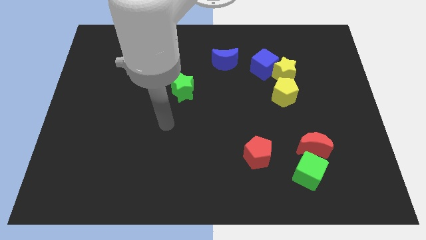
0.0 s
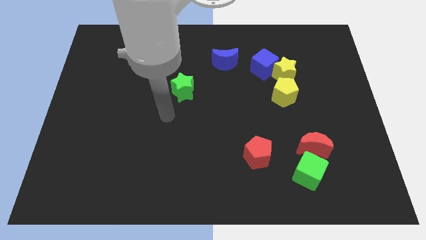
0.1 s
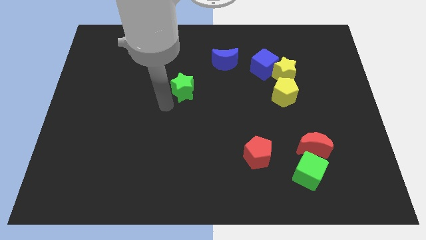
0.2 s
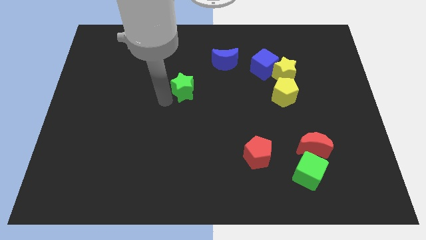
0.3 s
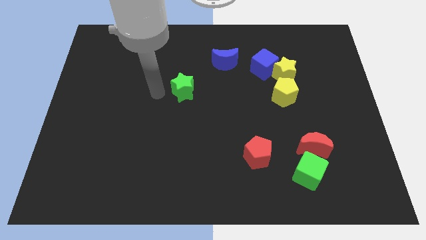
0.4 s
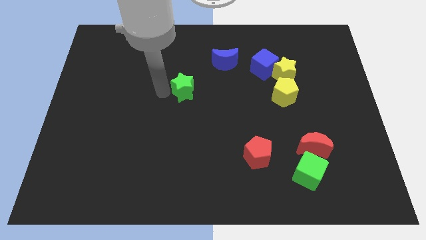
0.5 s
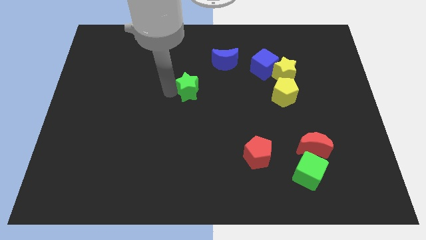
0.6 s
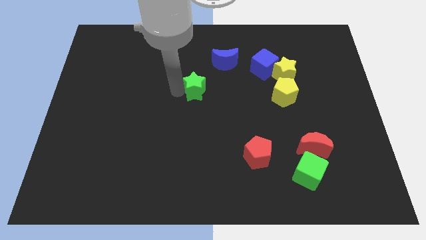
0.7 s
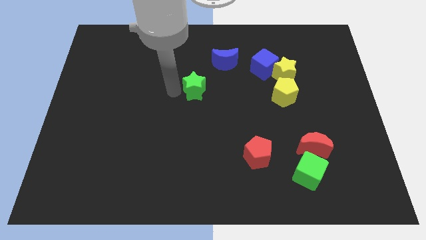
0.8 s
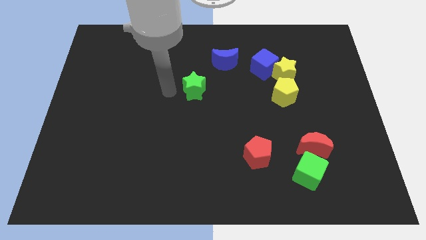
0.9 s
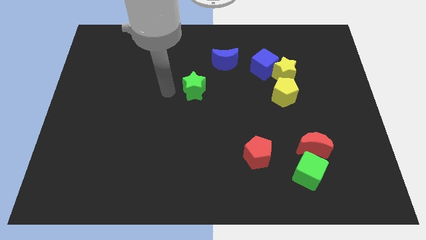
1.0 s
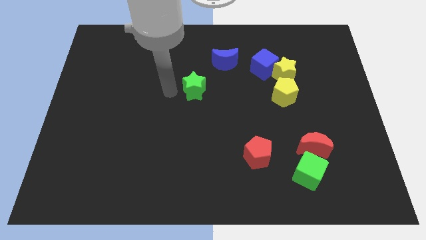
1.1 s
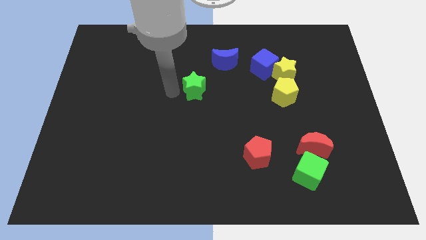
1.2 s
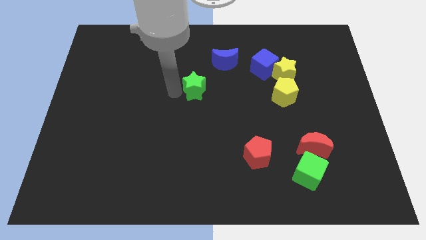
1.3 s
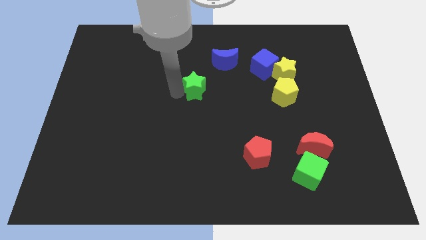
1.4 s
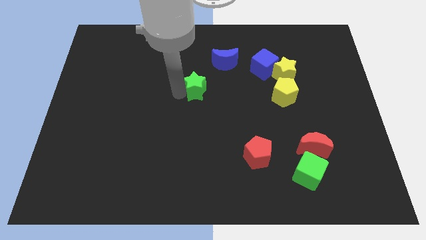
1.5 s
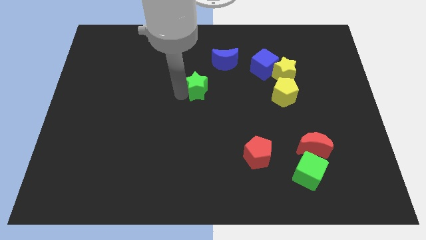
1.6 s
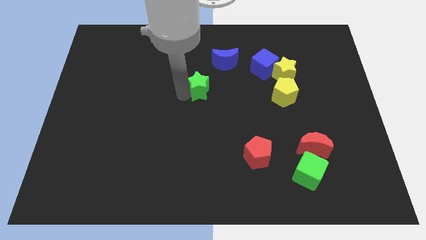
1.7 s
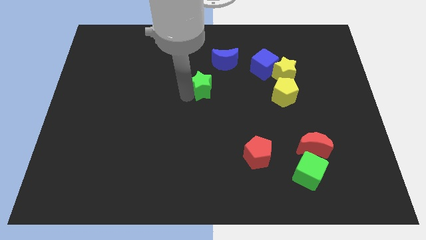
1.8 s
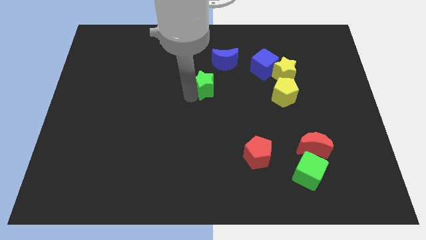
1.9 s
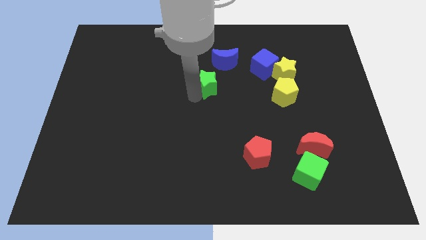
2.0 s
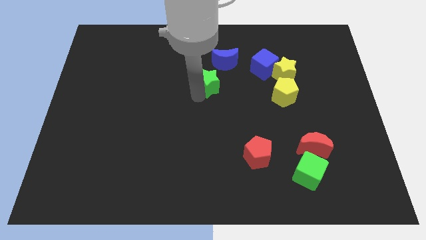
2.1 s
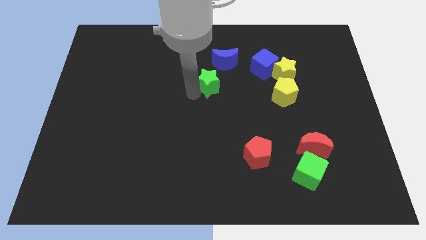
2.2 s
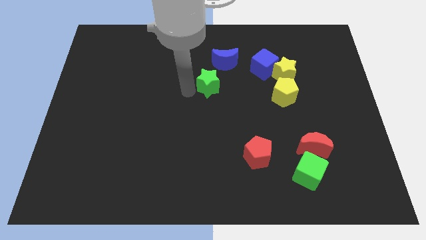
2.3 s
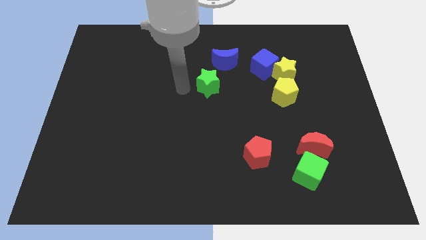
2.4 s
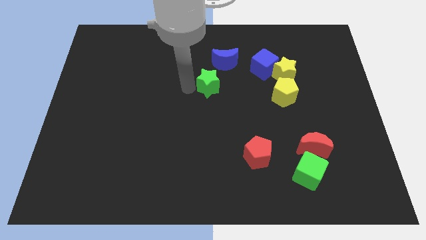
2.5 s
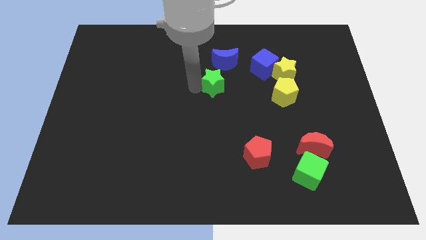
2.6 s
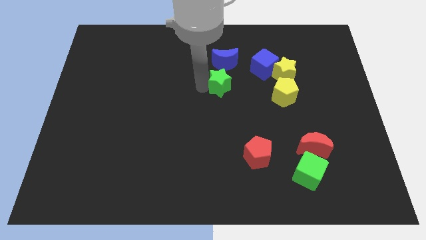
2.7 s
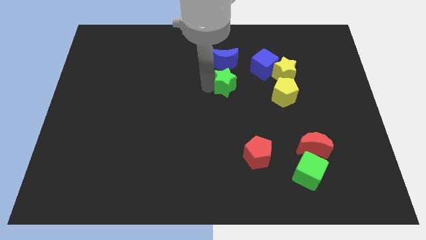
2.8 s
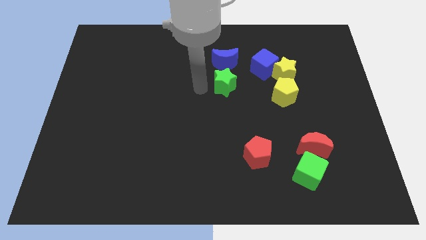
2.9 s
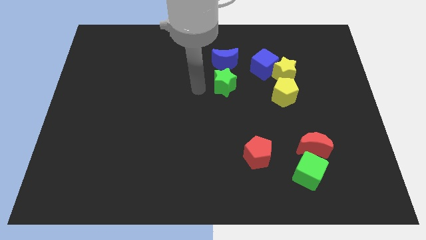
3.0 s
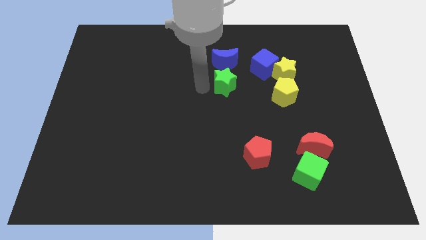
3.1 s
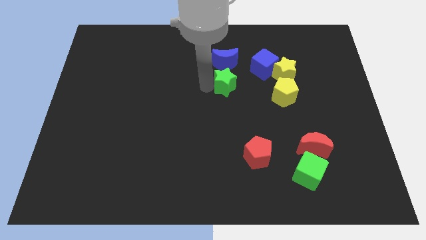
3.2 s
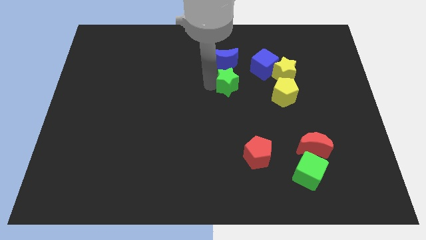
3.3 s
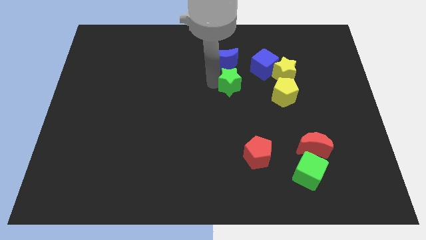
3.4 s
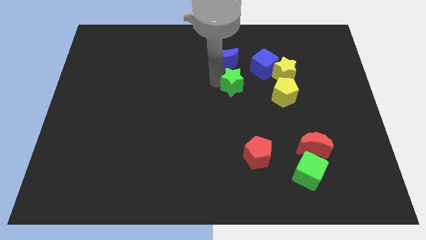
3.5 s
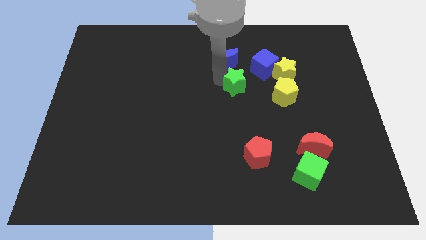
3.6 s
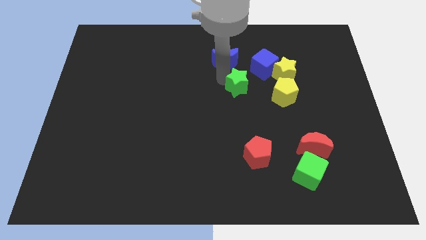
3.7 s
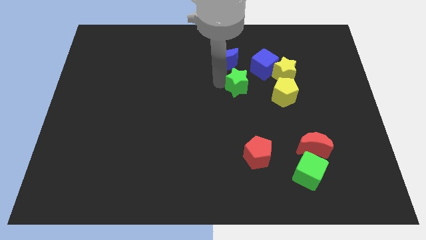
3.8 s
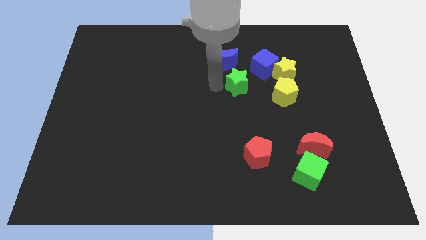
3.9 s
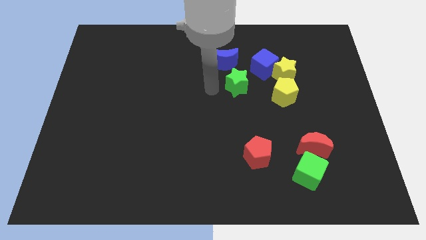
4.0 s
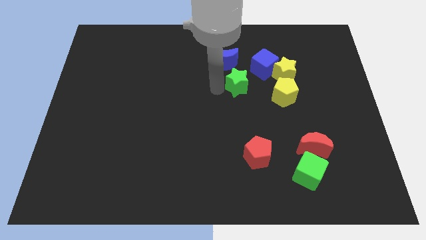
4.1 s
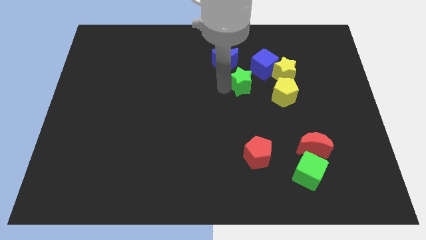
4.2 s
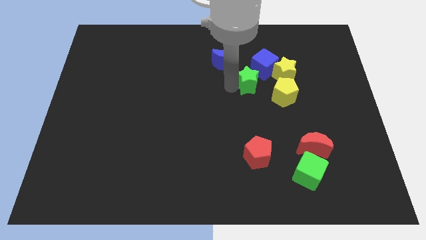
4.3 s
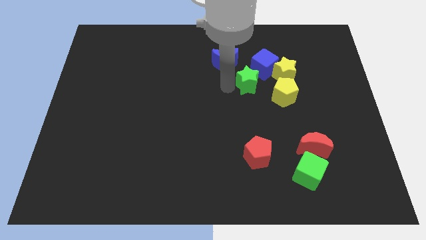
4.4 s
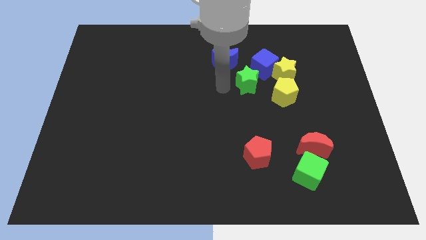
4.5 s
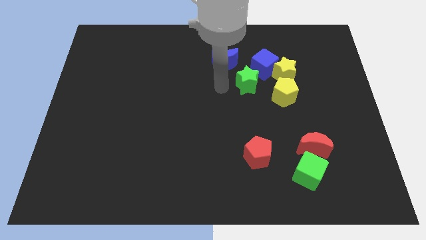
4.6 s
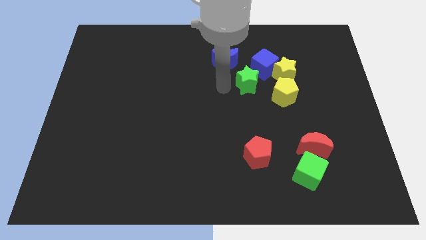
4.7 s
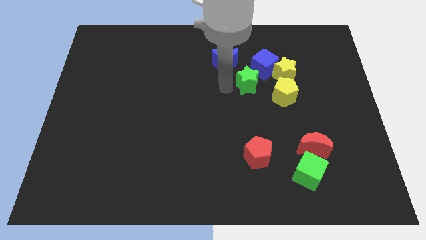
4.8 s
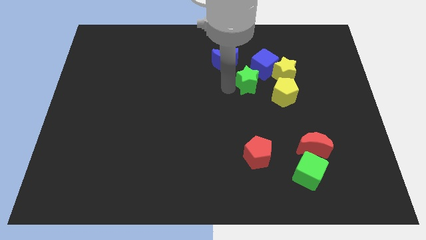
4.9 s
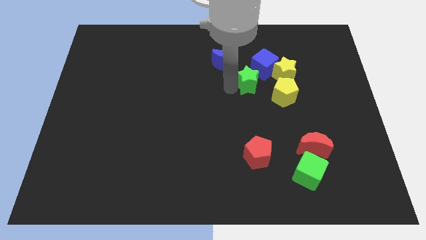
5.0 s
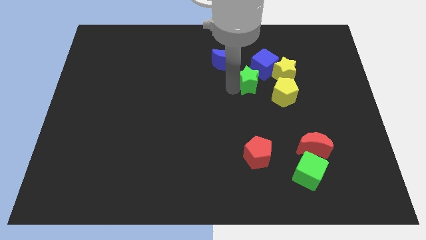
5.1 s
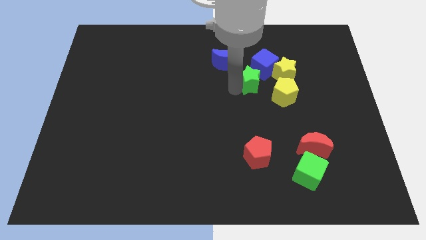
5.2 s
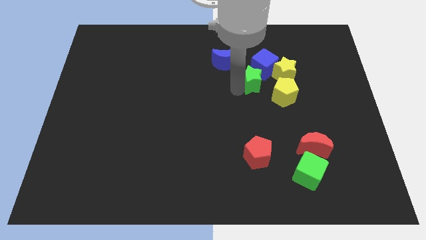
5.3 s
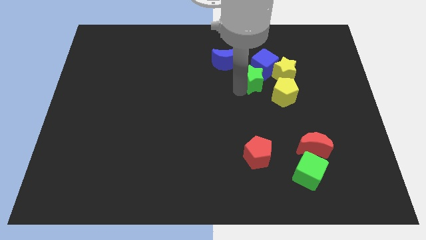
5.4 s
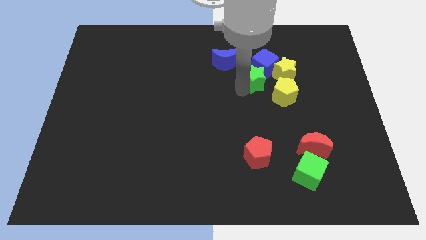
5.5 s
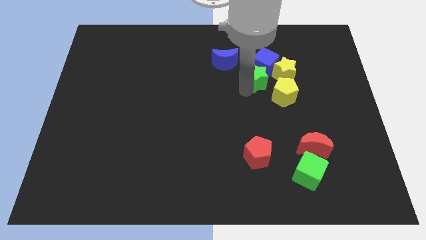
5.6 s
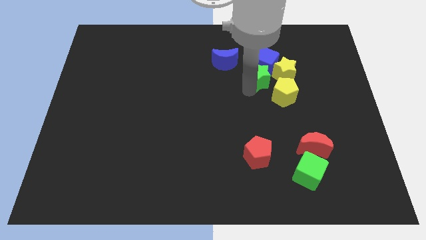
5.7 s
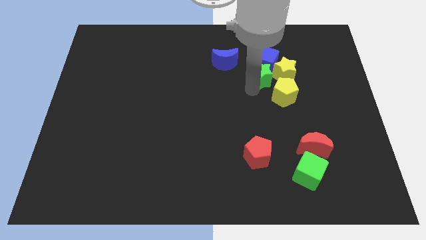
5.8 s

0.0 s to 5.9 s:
push the green star close to the yellow star

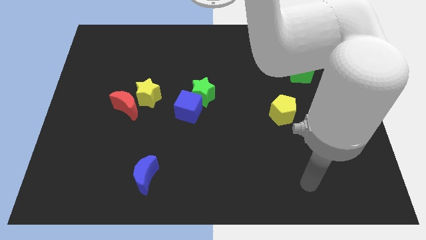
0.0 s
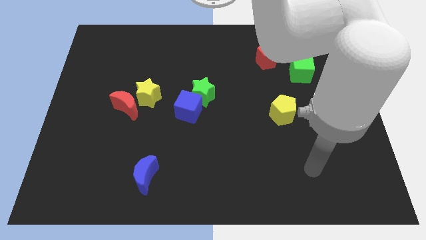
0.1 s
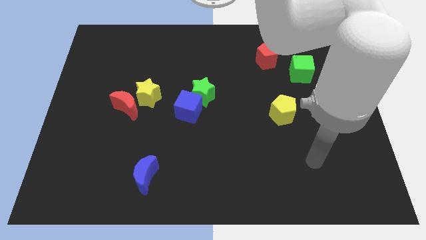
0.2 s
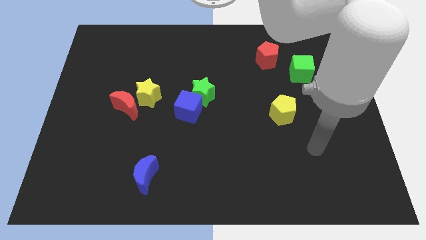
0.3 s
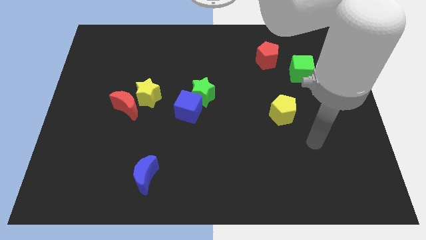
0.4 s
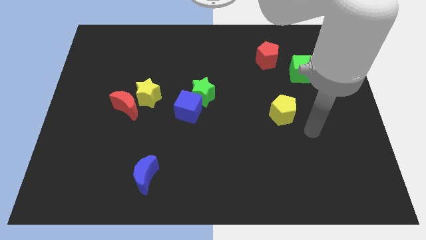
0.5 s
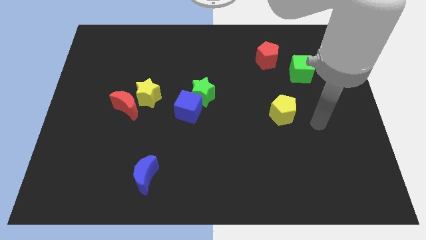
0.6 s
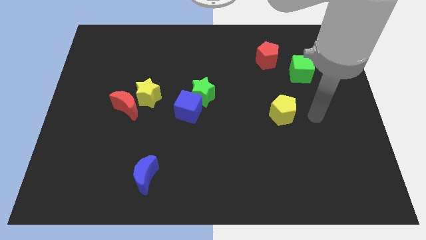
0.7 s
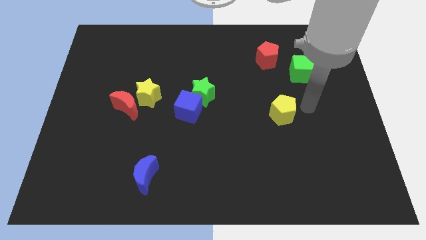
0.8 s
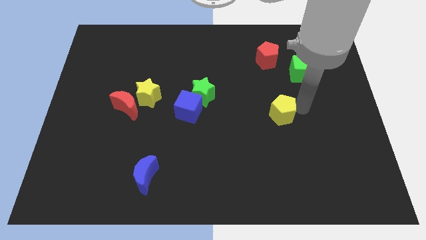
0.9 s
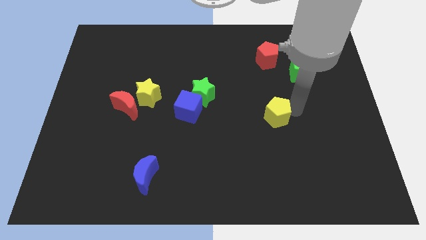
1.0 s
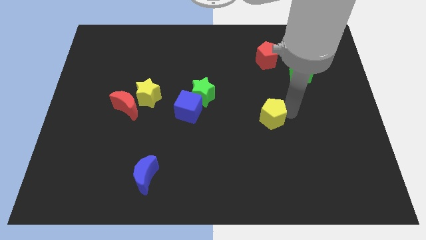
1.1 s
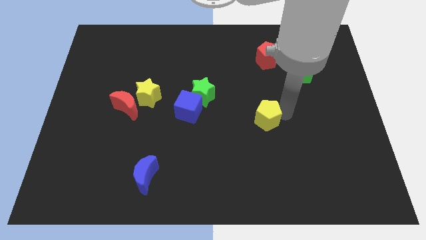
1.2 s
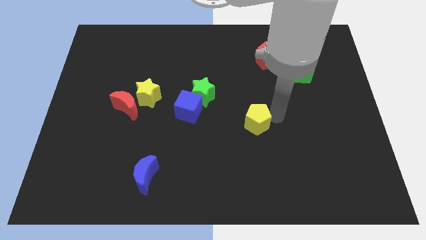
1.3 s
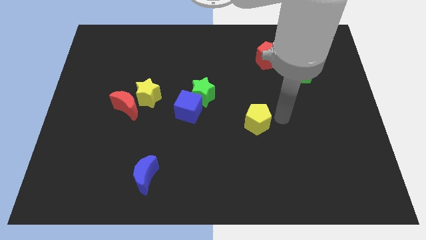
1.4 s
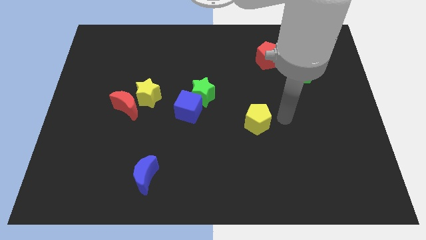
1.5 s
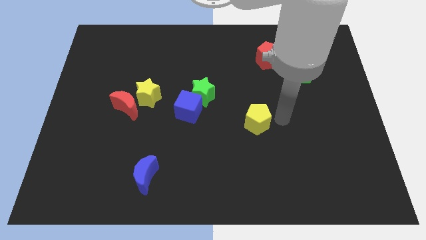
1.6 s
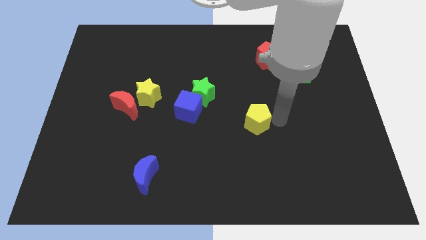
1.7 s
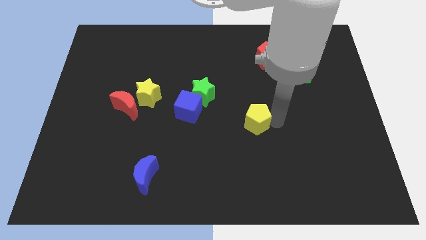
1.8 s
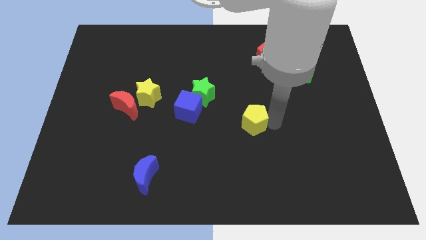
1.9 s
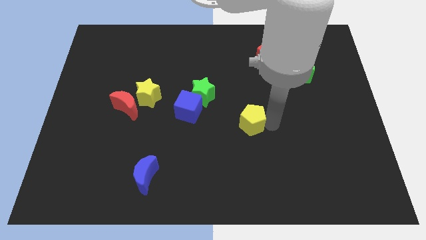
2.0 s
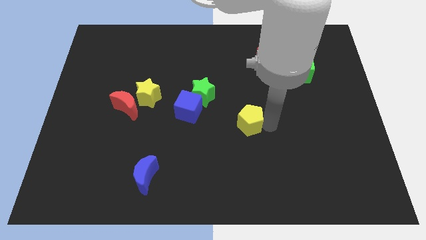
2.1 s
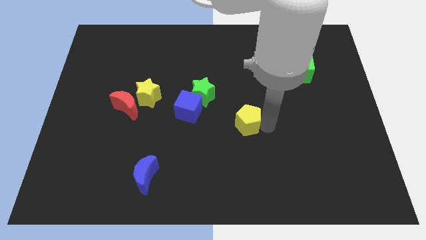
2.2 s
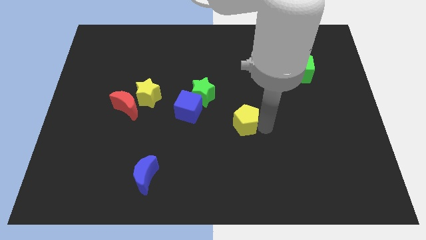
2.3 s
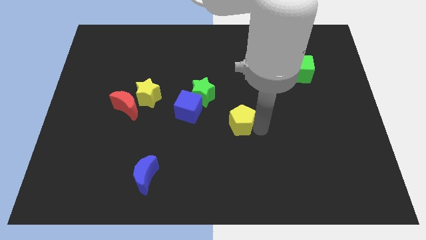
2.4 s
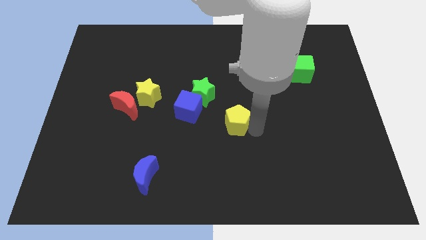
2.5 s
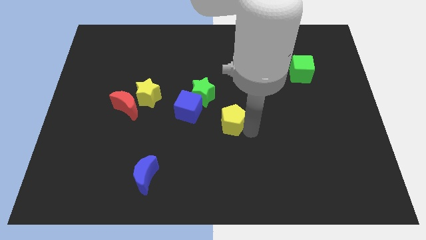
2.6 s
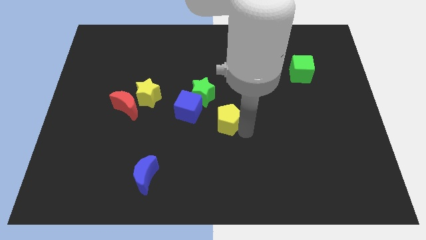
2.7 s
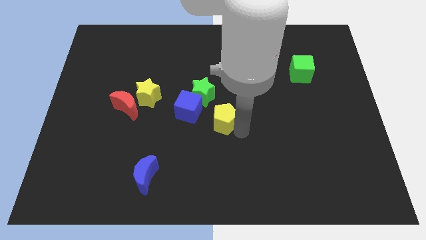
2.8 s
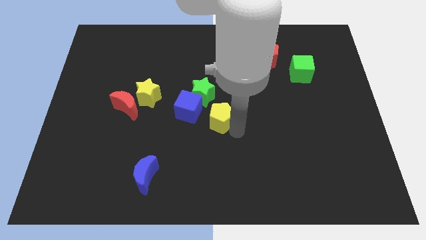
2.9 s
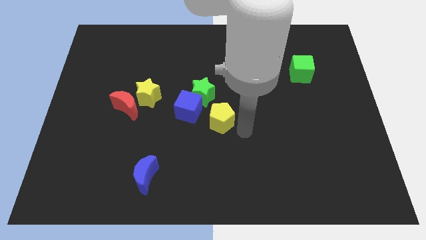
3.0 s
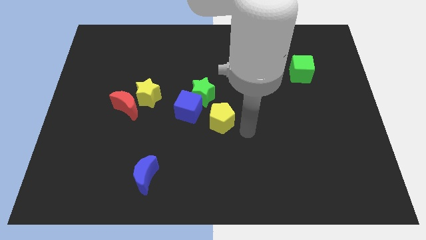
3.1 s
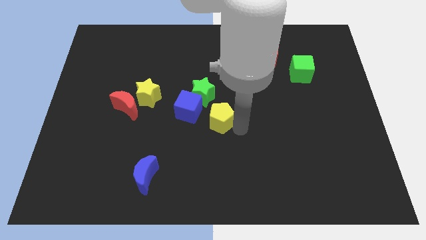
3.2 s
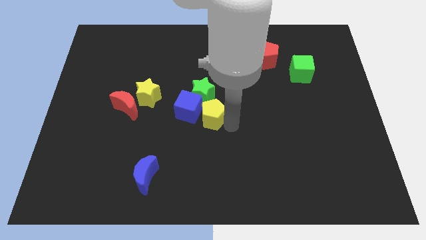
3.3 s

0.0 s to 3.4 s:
slide the yellow pentagon to the blue cube
